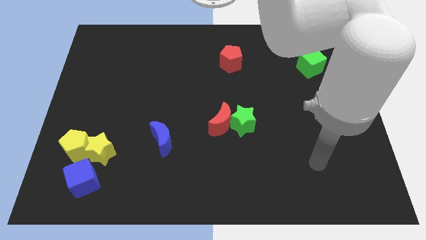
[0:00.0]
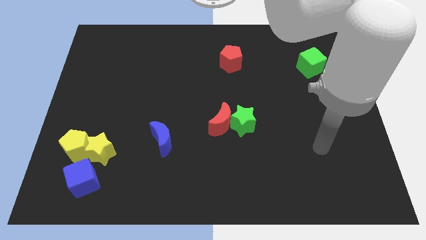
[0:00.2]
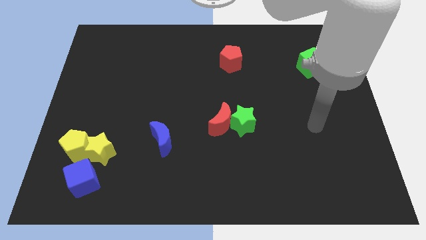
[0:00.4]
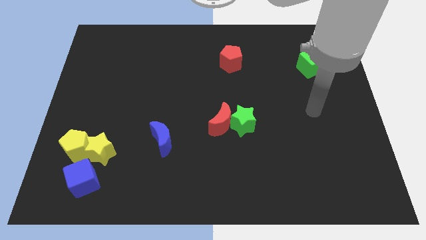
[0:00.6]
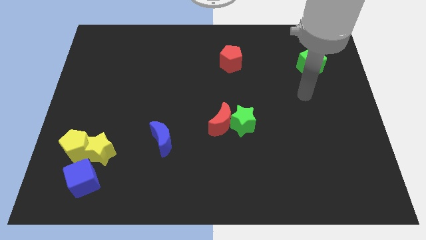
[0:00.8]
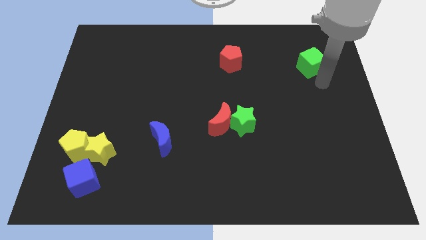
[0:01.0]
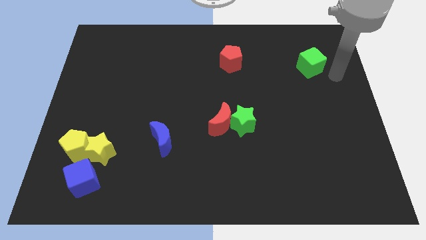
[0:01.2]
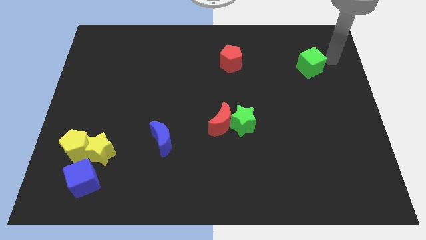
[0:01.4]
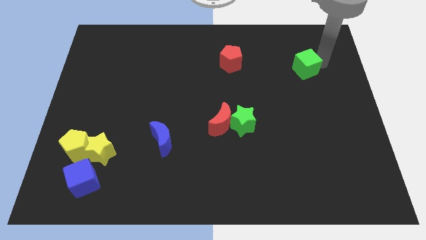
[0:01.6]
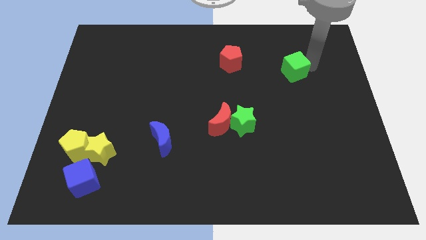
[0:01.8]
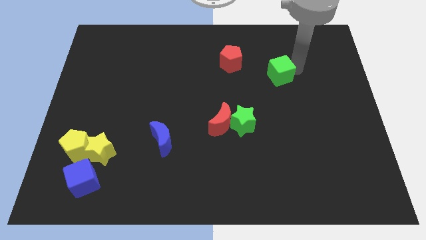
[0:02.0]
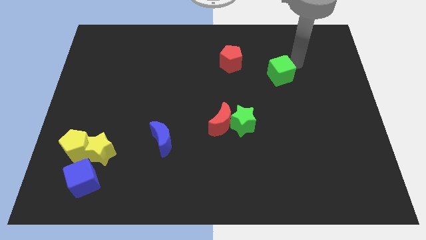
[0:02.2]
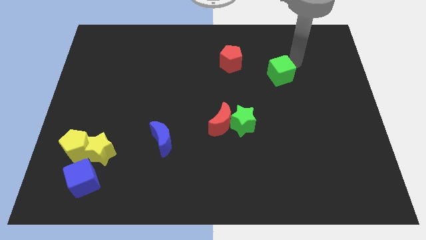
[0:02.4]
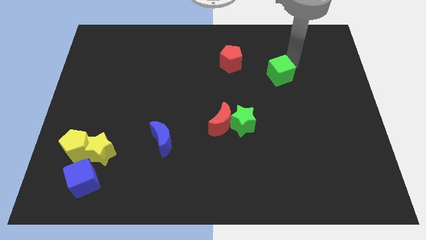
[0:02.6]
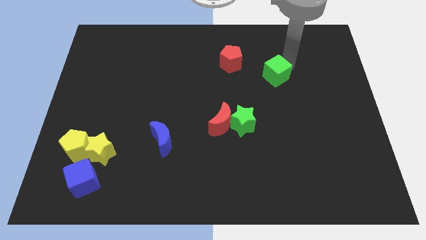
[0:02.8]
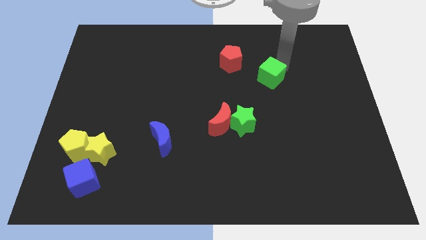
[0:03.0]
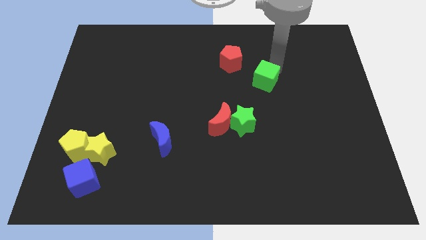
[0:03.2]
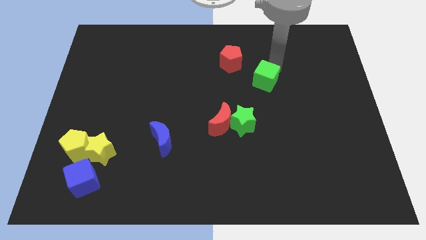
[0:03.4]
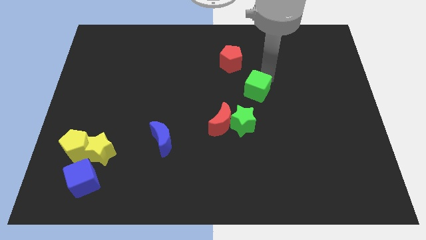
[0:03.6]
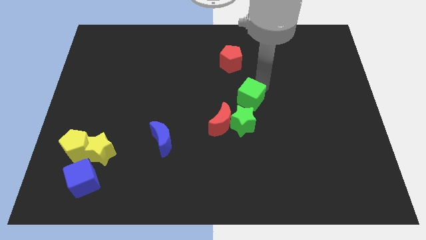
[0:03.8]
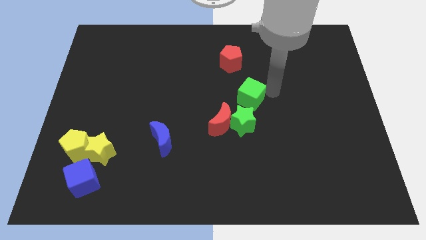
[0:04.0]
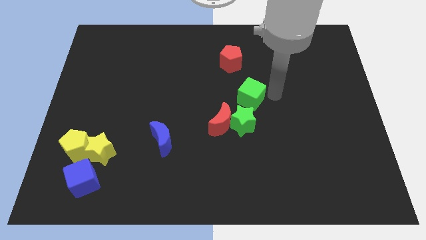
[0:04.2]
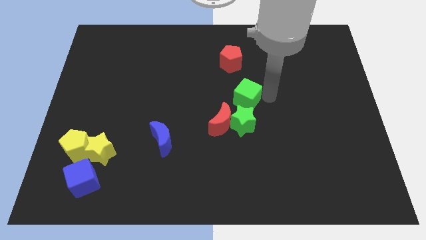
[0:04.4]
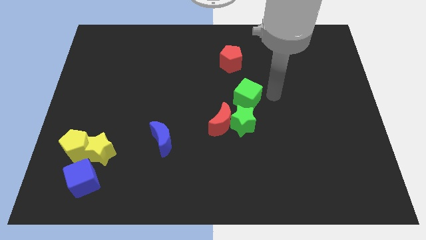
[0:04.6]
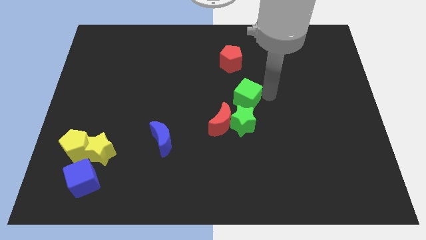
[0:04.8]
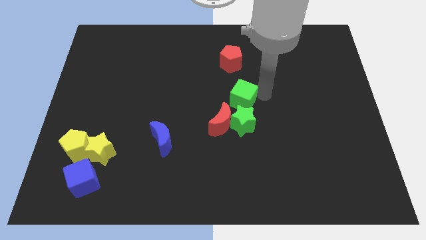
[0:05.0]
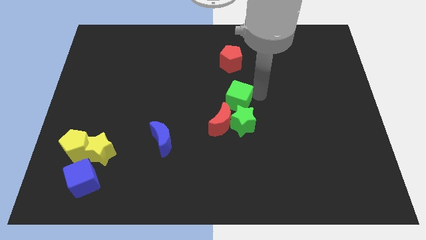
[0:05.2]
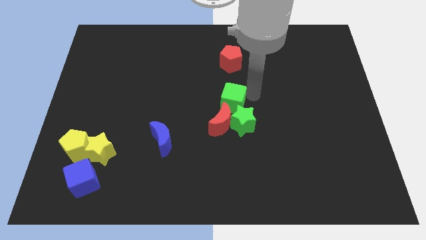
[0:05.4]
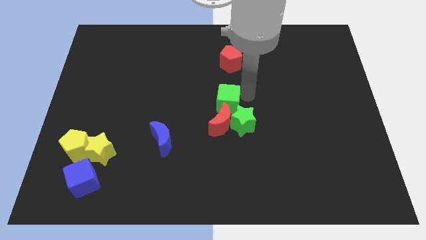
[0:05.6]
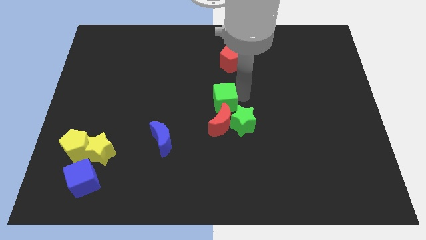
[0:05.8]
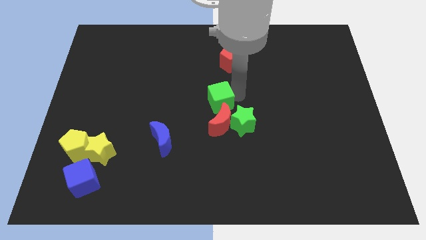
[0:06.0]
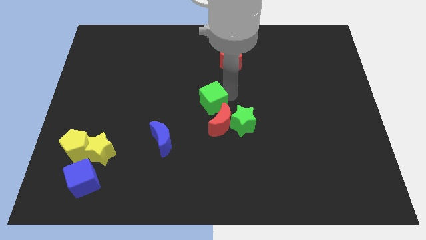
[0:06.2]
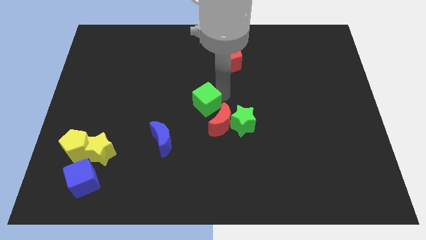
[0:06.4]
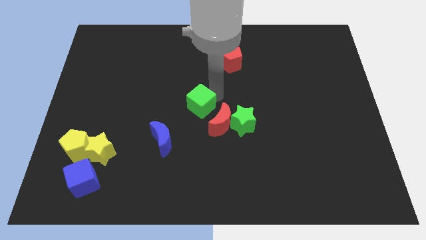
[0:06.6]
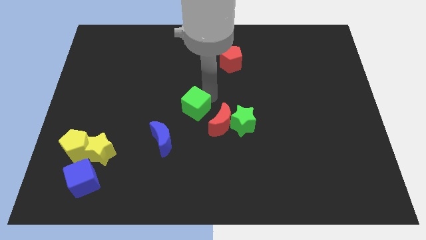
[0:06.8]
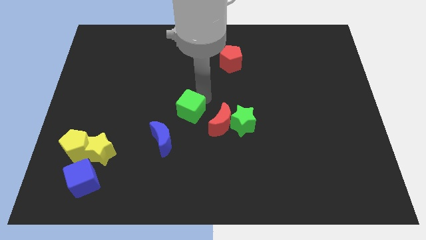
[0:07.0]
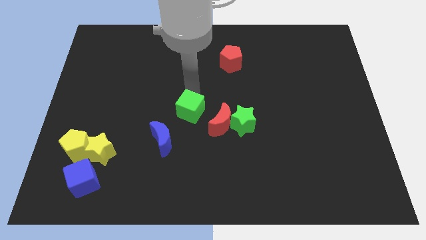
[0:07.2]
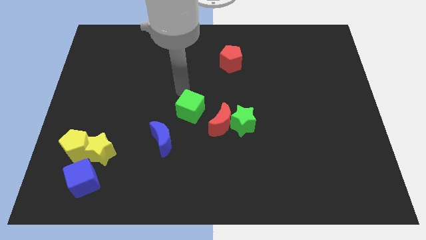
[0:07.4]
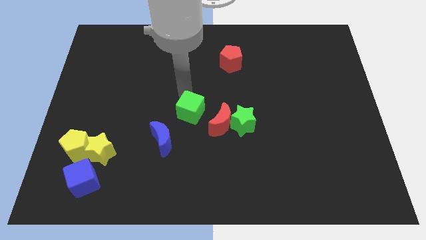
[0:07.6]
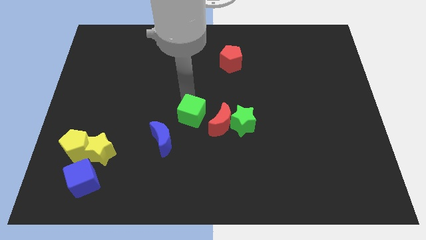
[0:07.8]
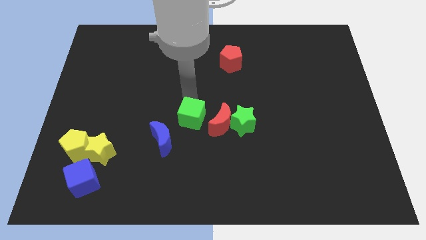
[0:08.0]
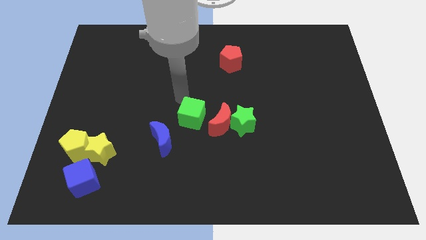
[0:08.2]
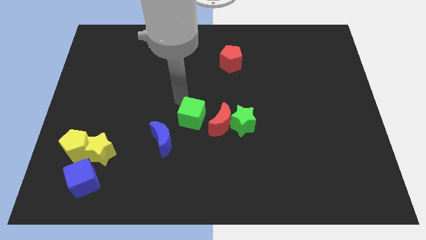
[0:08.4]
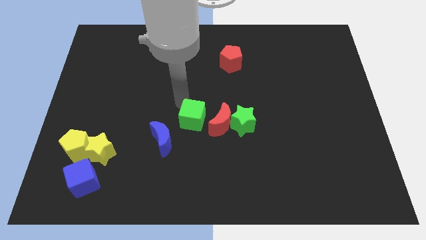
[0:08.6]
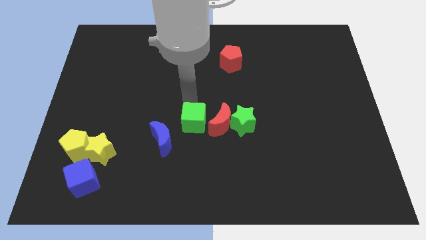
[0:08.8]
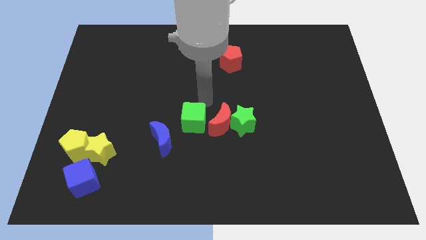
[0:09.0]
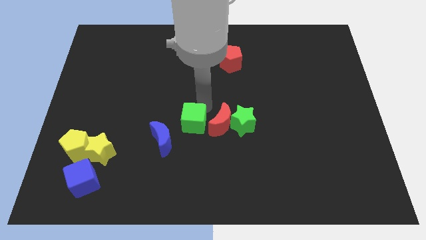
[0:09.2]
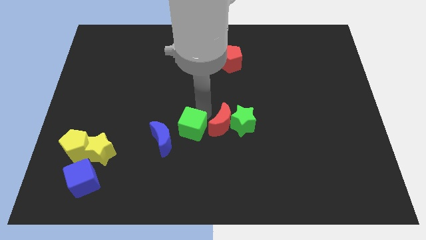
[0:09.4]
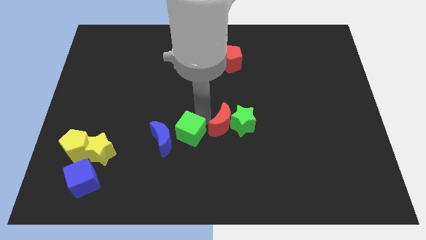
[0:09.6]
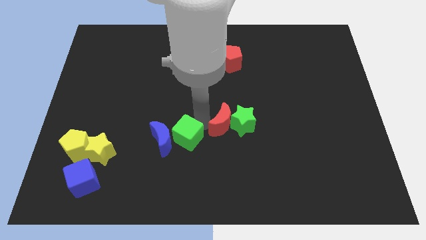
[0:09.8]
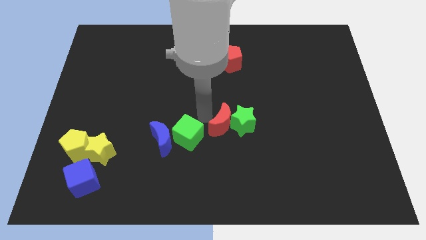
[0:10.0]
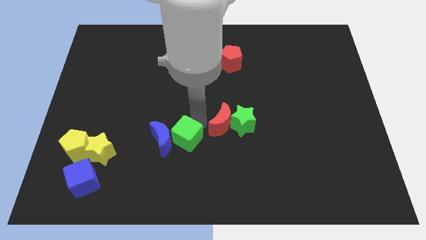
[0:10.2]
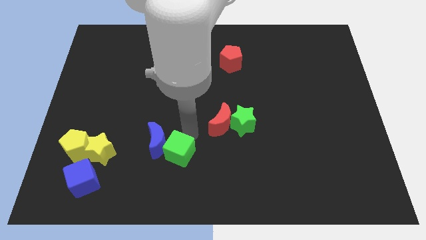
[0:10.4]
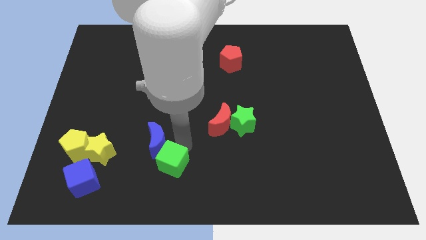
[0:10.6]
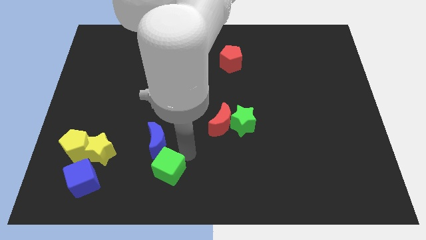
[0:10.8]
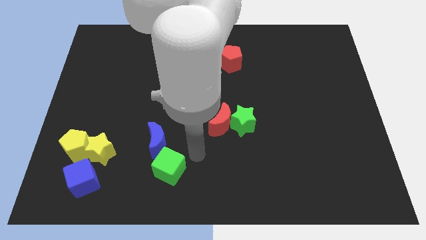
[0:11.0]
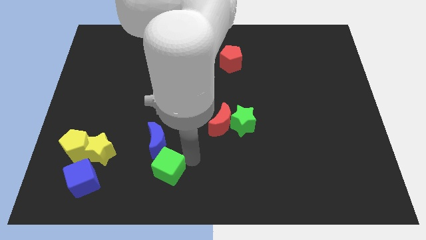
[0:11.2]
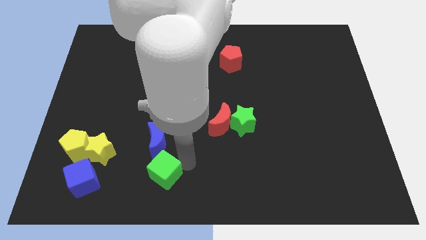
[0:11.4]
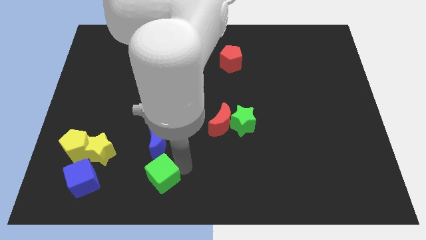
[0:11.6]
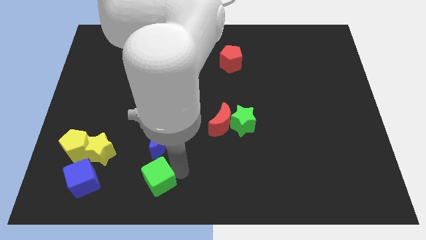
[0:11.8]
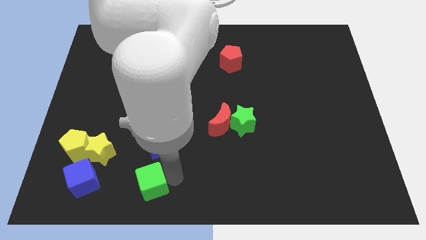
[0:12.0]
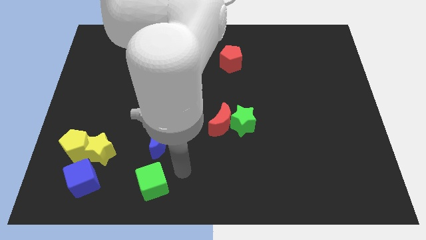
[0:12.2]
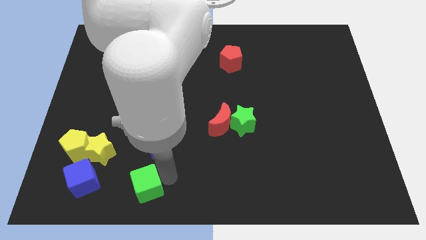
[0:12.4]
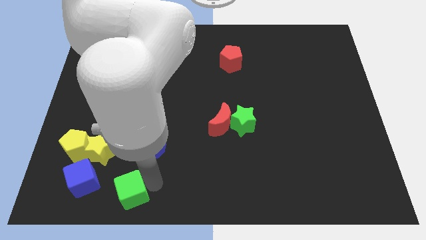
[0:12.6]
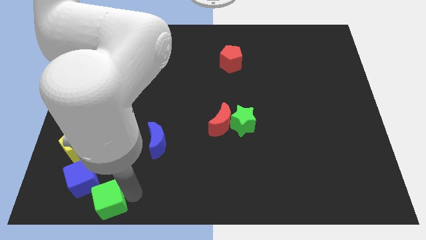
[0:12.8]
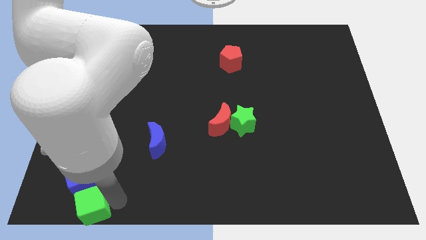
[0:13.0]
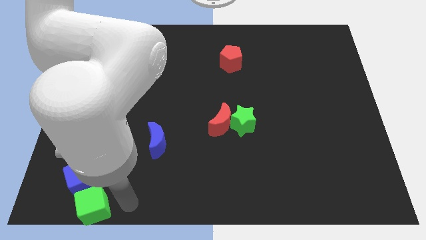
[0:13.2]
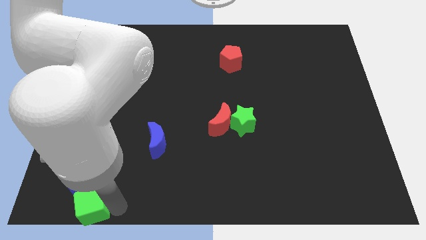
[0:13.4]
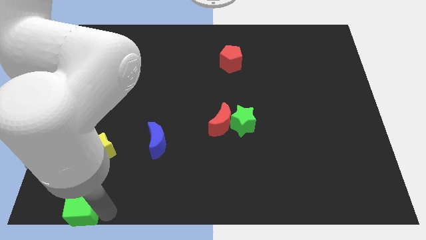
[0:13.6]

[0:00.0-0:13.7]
move the green cube to the bottom left corner

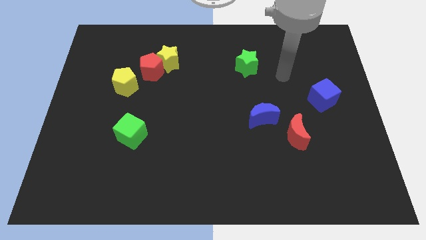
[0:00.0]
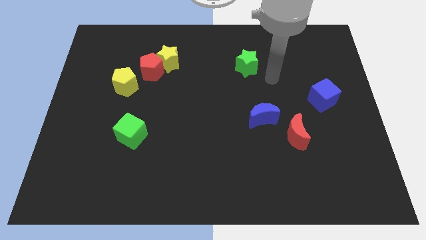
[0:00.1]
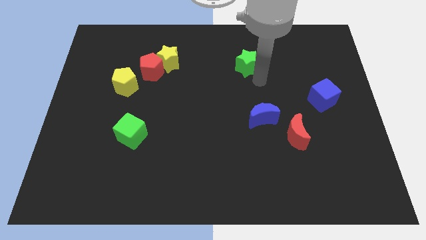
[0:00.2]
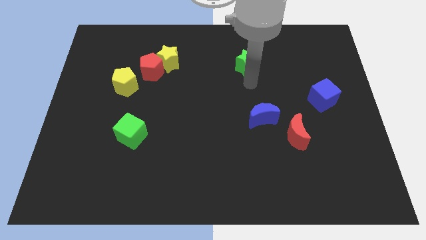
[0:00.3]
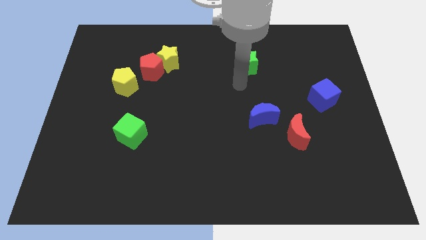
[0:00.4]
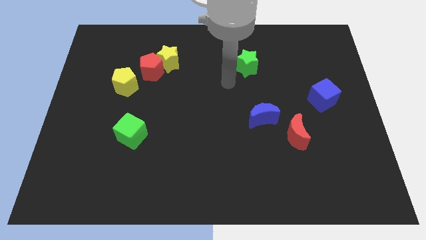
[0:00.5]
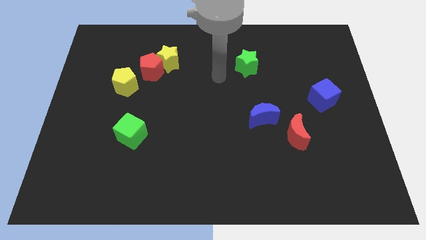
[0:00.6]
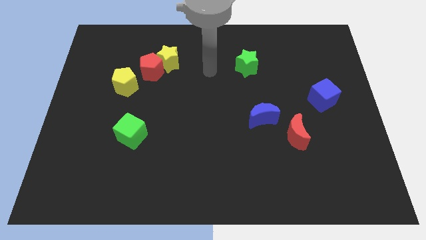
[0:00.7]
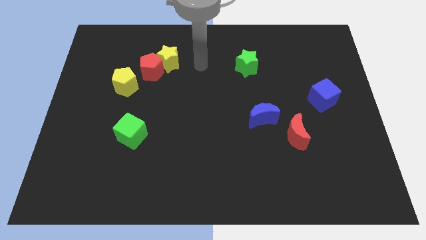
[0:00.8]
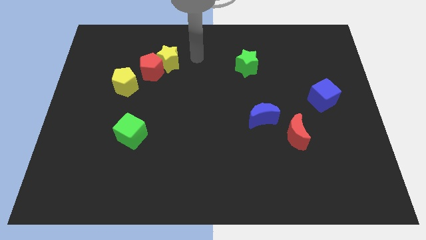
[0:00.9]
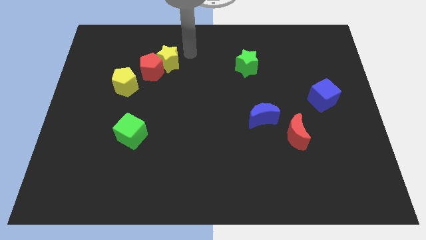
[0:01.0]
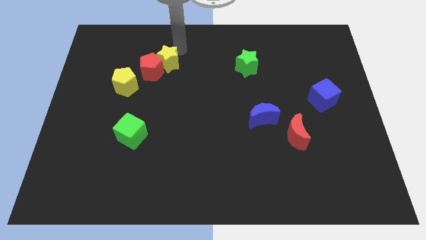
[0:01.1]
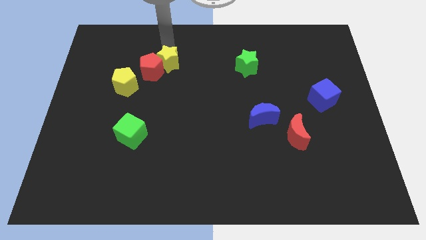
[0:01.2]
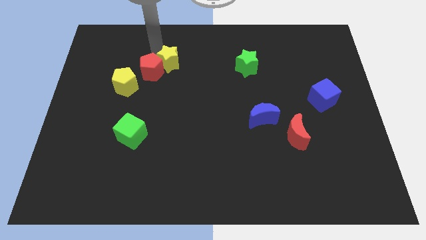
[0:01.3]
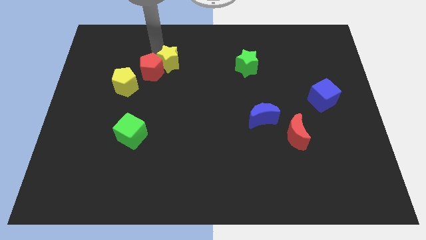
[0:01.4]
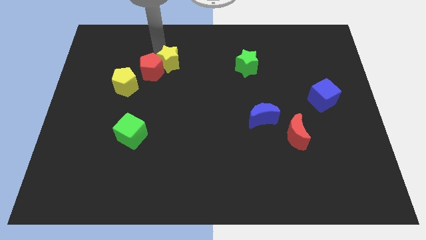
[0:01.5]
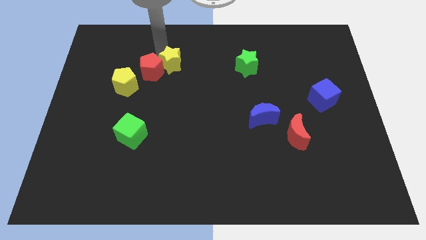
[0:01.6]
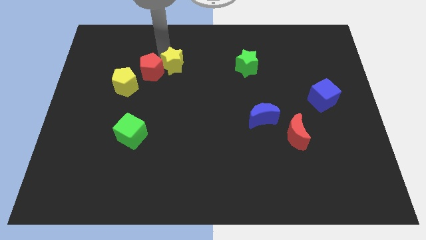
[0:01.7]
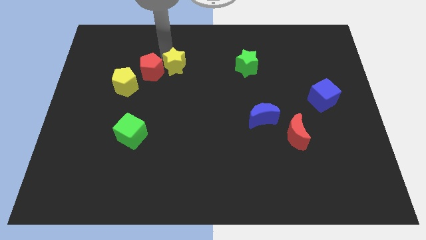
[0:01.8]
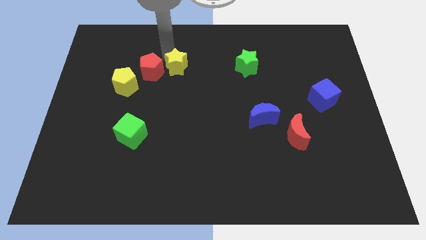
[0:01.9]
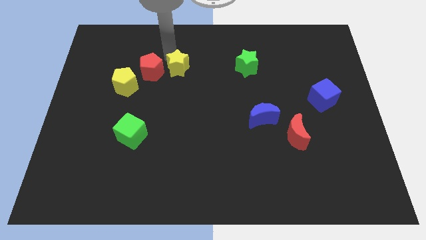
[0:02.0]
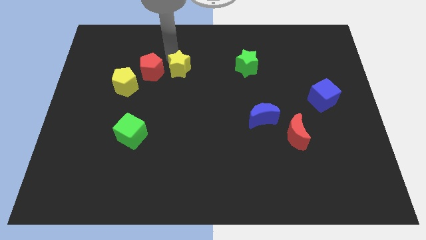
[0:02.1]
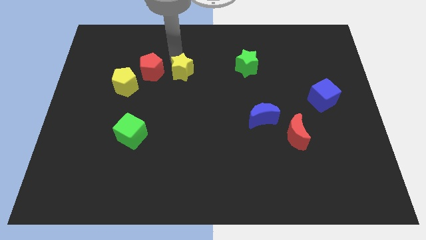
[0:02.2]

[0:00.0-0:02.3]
push the yellow star to the middle of the board
